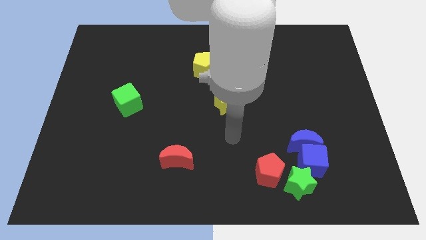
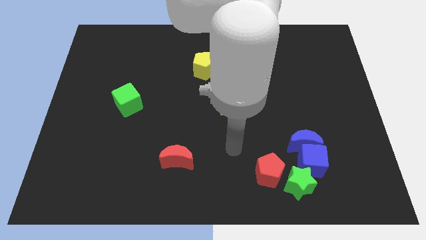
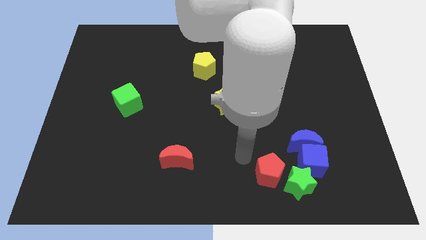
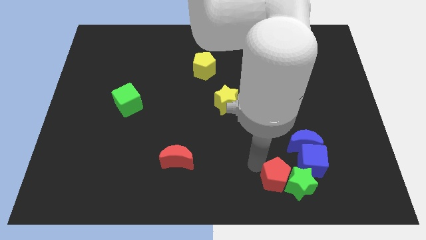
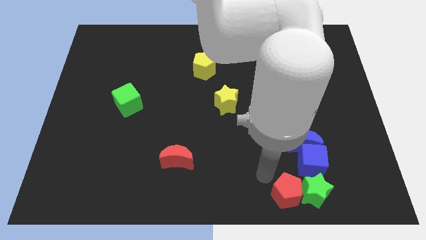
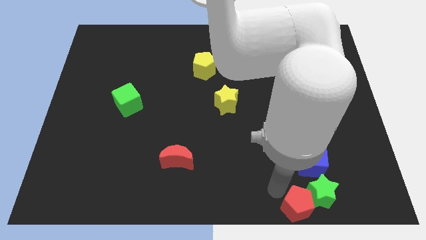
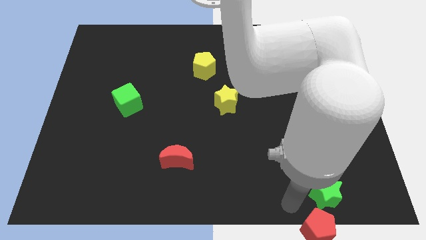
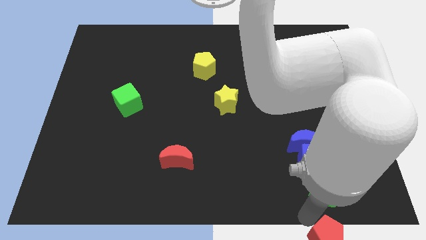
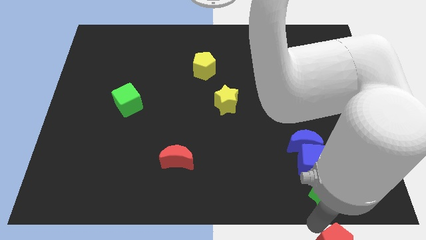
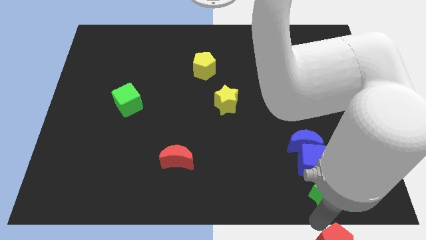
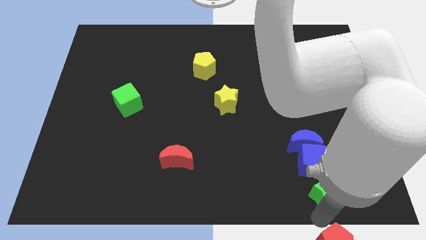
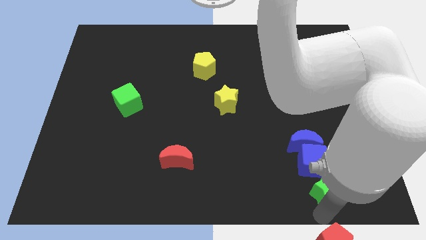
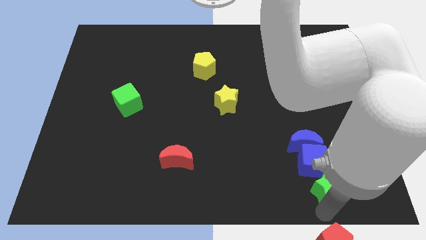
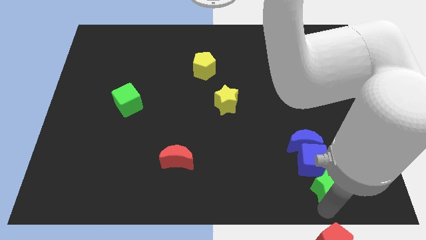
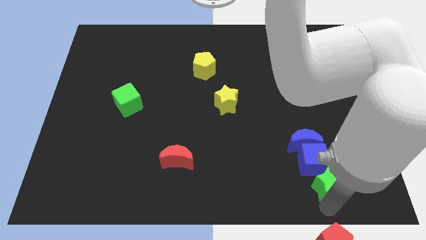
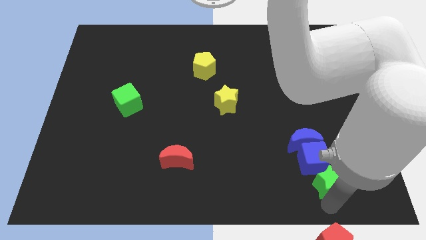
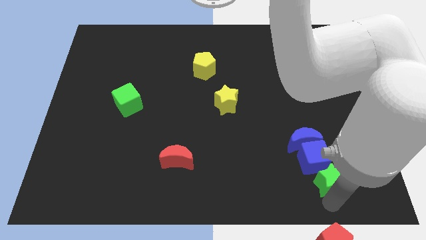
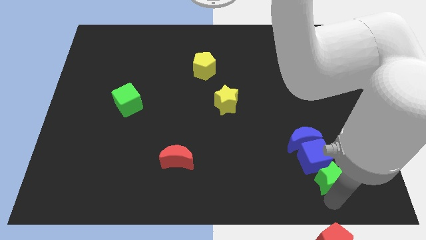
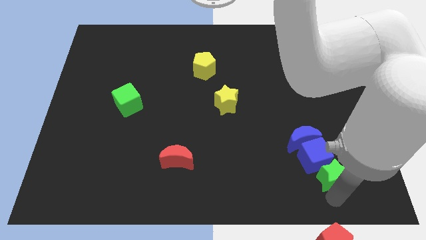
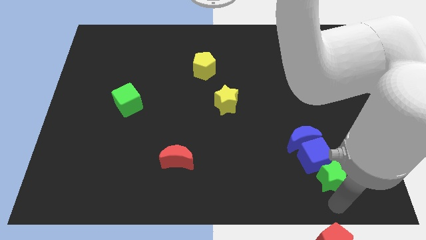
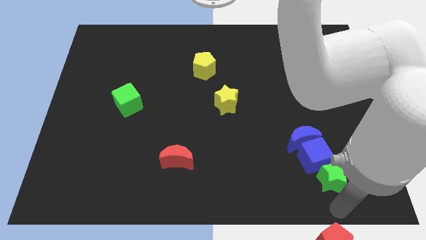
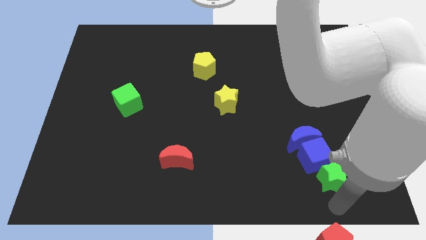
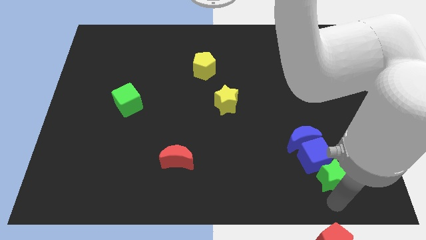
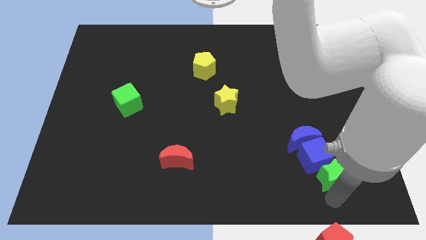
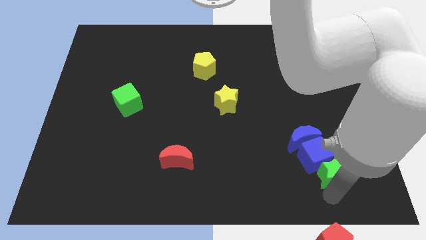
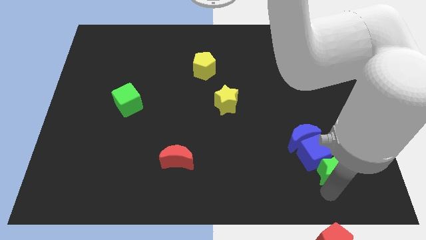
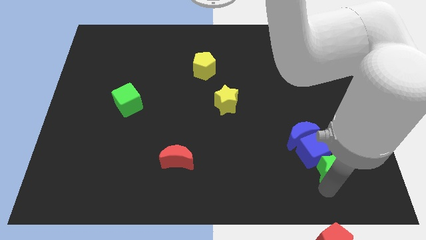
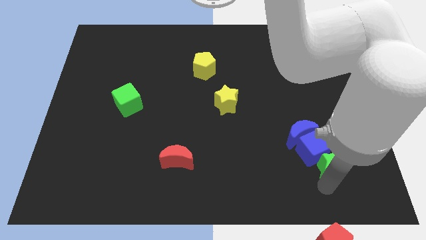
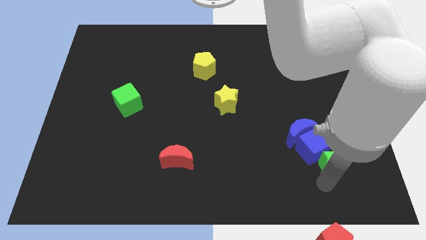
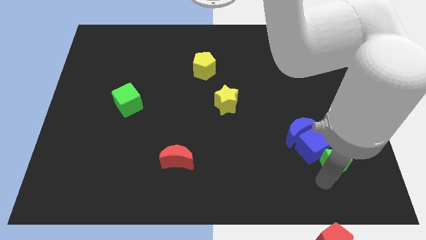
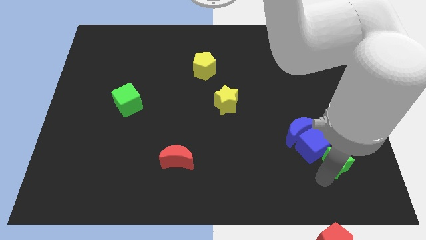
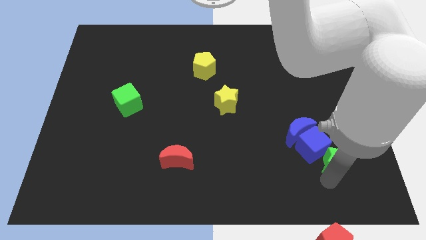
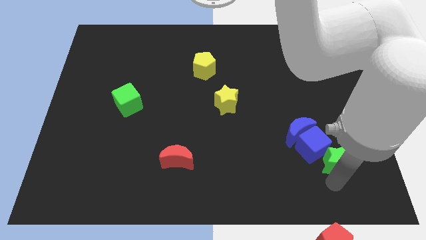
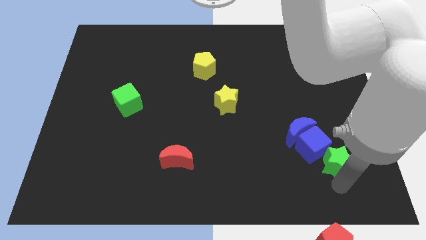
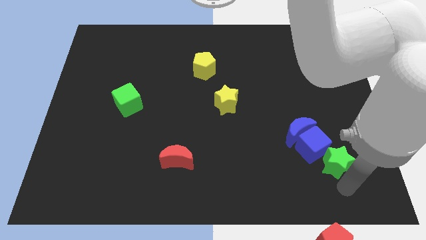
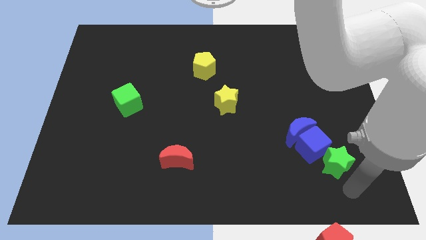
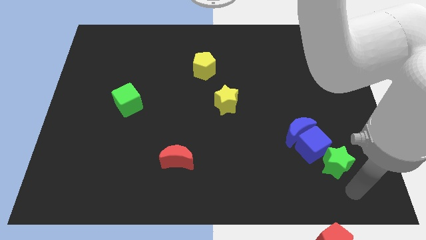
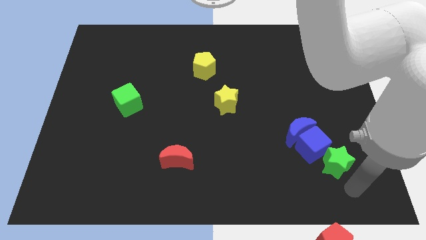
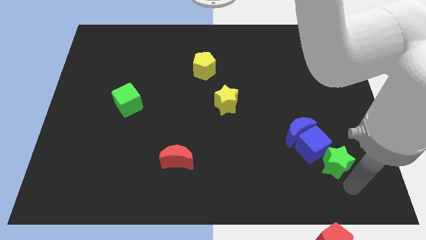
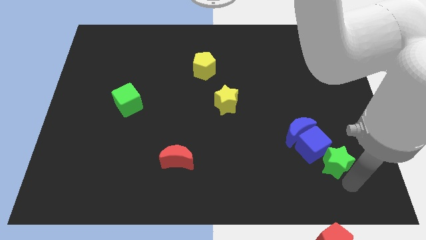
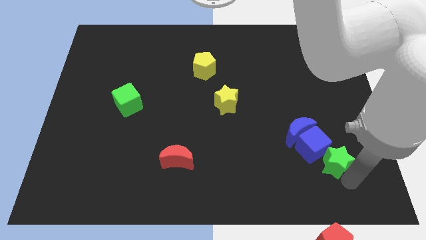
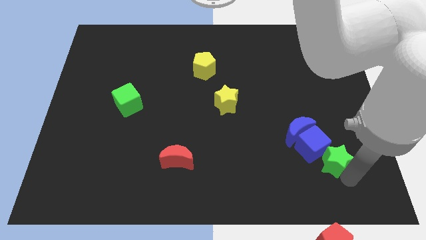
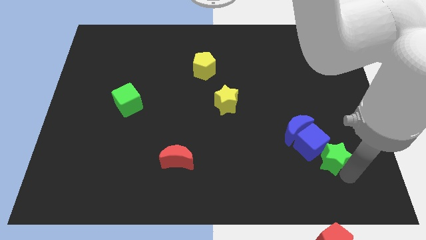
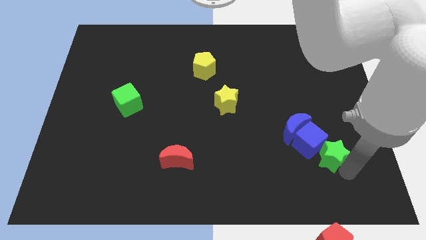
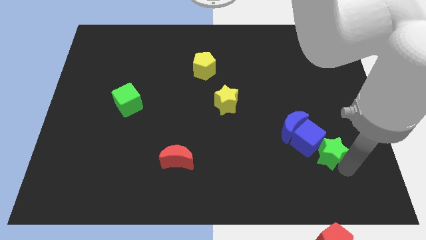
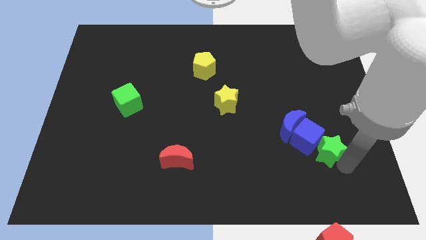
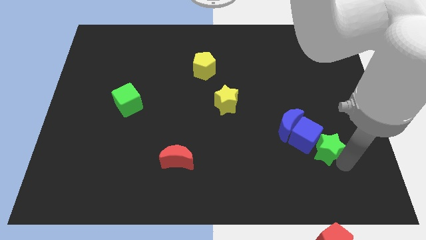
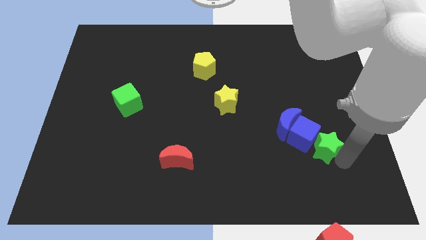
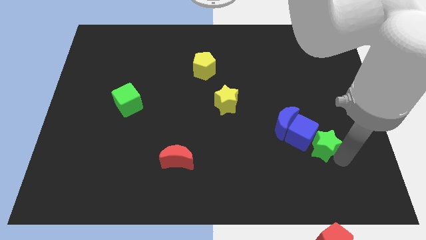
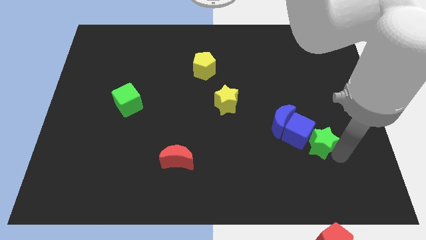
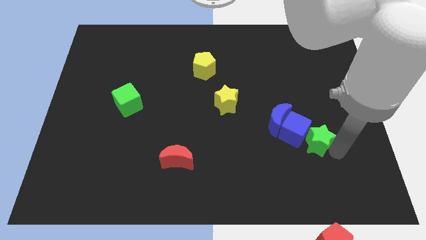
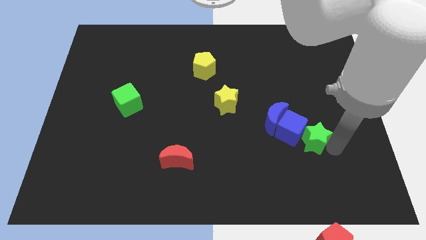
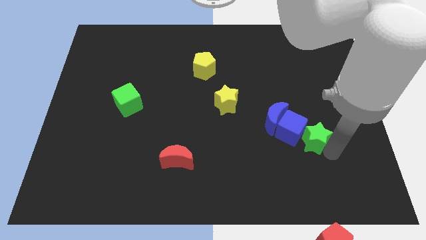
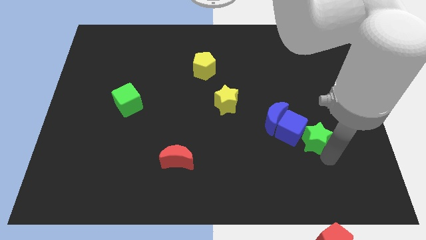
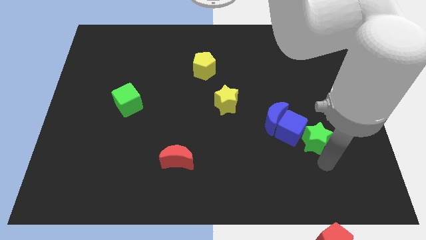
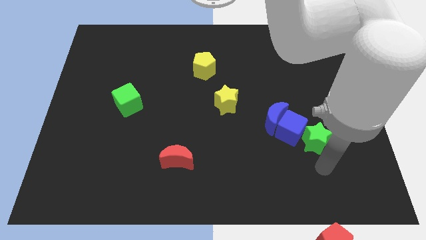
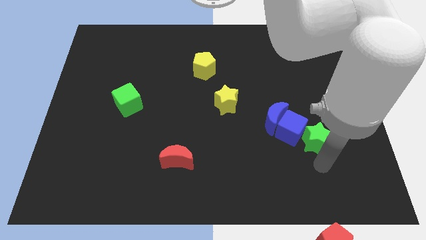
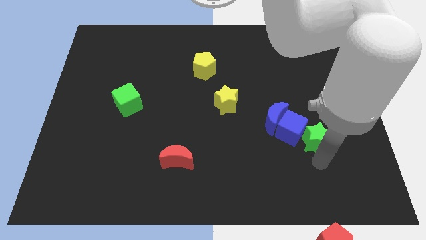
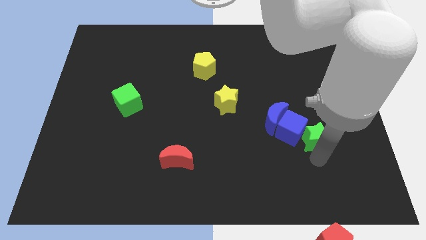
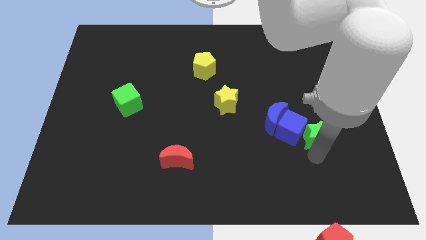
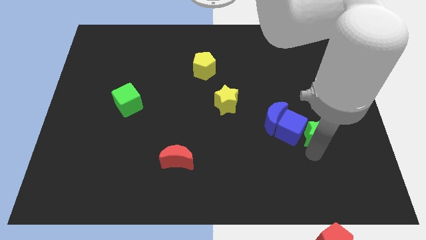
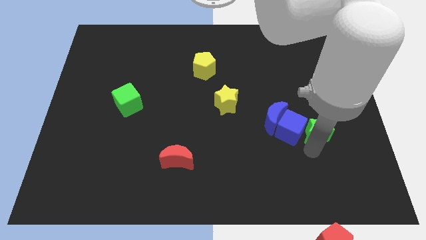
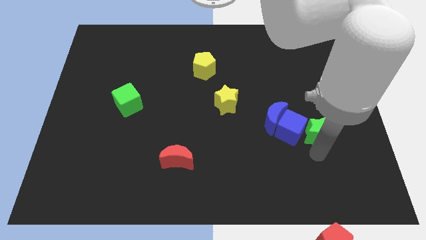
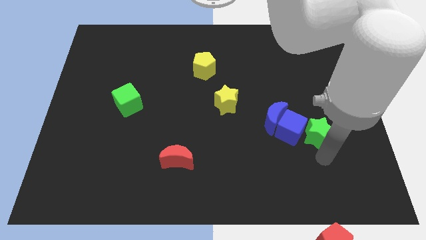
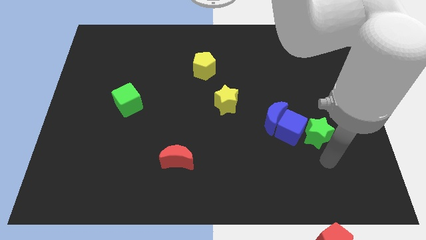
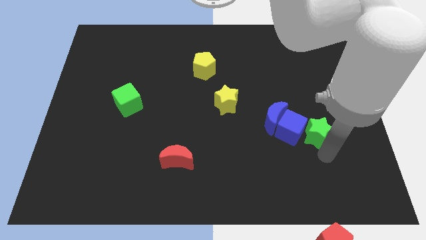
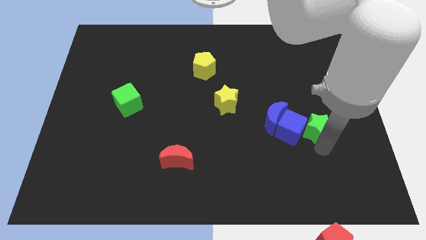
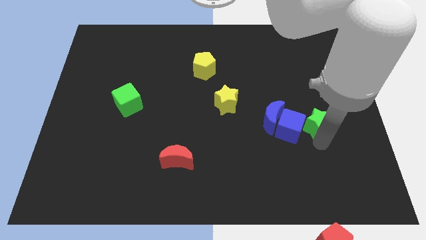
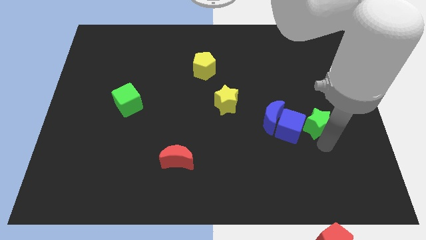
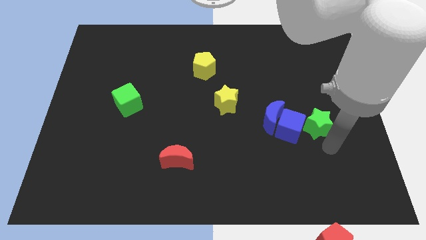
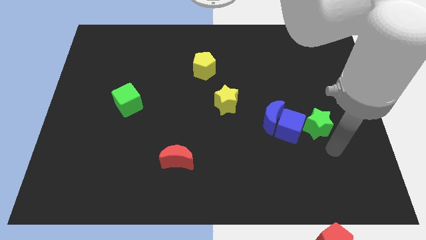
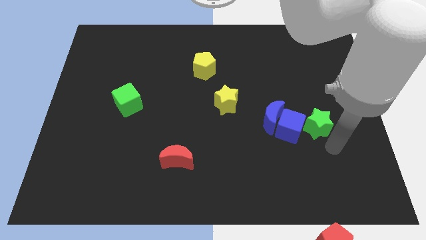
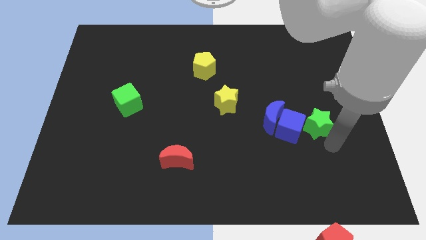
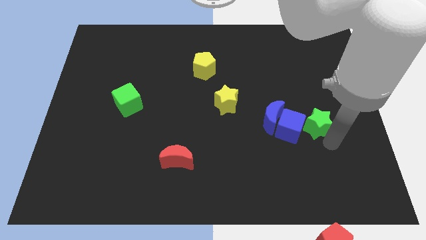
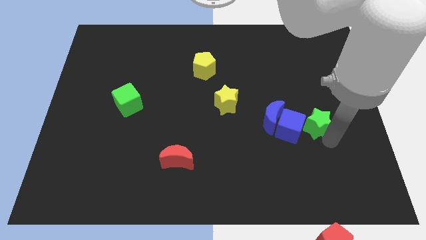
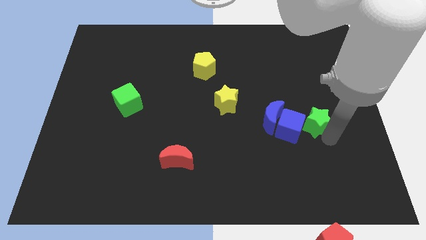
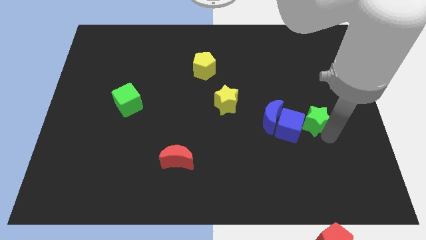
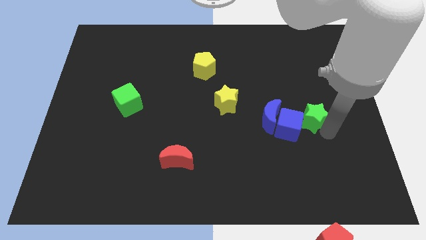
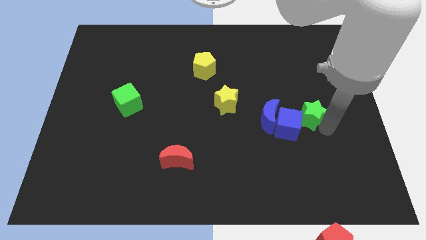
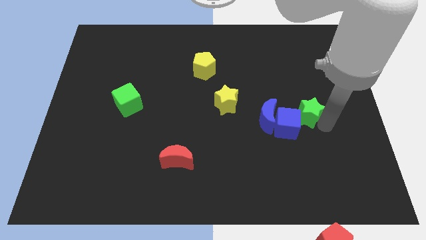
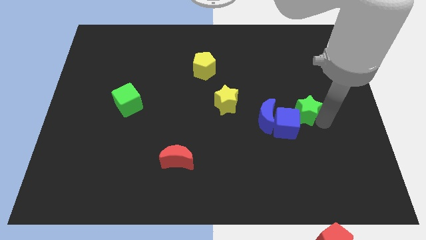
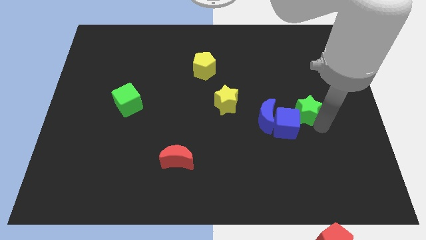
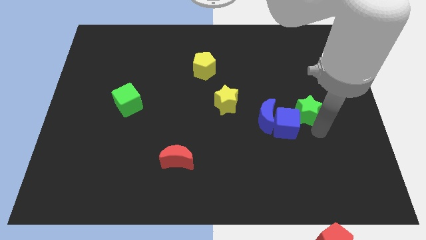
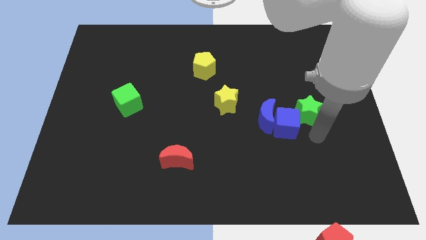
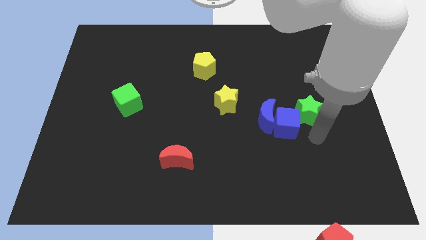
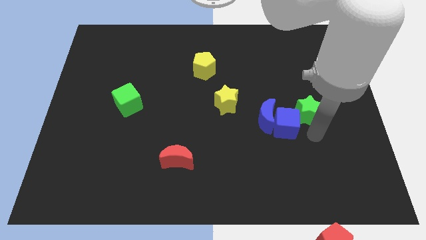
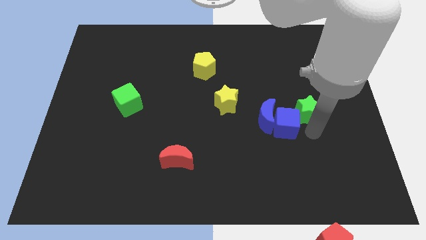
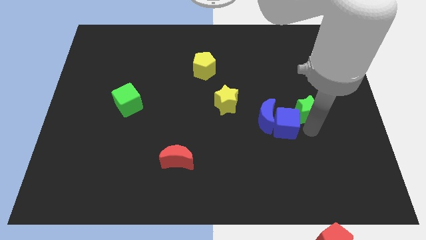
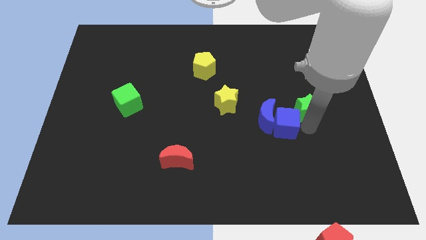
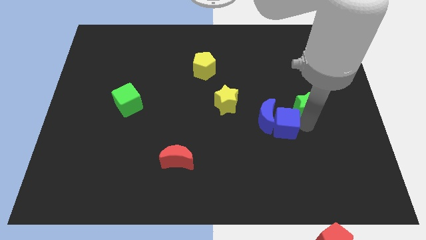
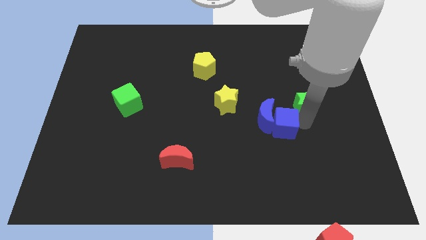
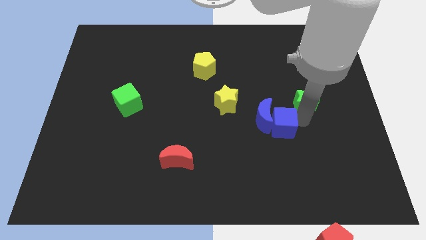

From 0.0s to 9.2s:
slide the green star up
